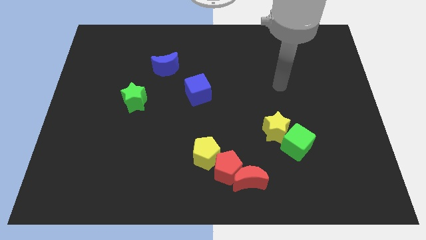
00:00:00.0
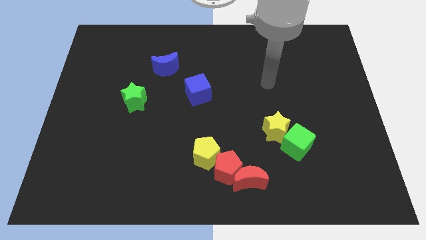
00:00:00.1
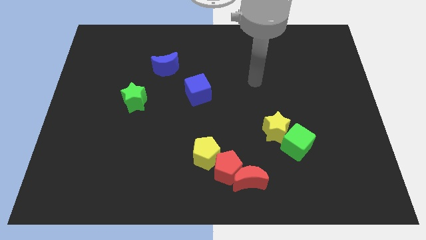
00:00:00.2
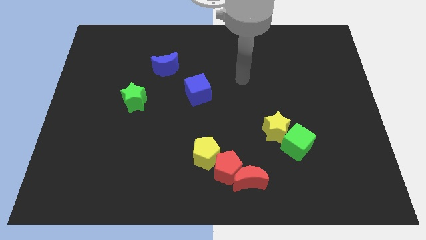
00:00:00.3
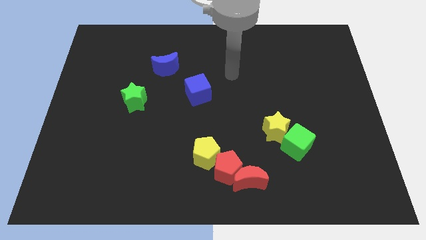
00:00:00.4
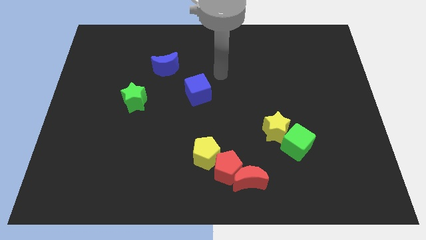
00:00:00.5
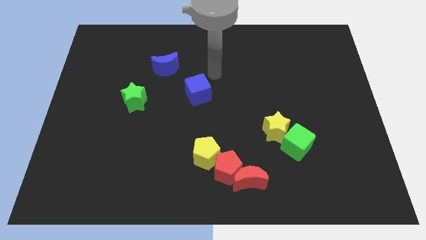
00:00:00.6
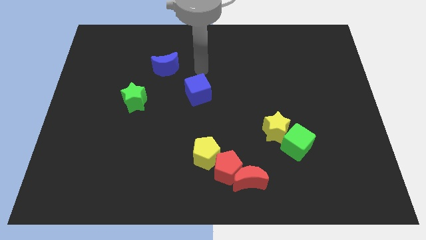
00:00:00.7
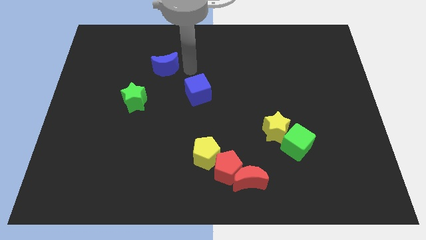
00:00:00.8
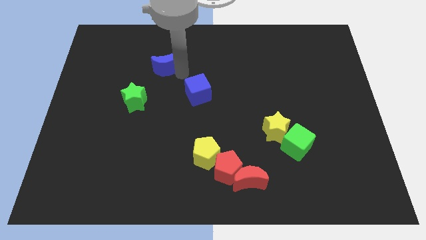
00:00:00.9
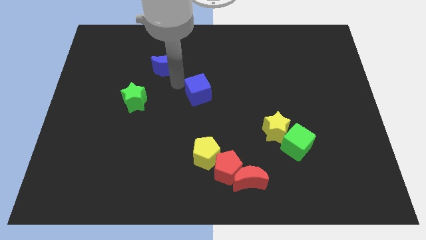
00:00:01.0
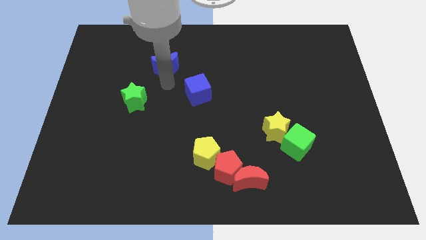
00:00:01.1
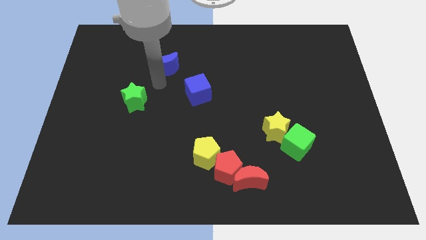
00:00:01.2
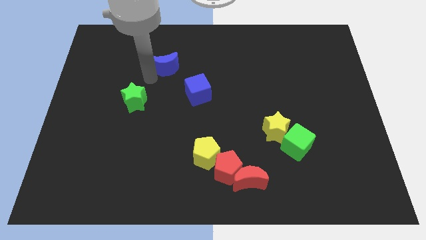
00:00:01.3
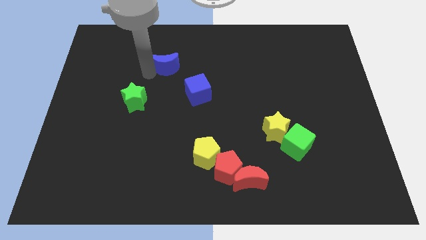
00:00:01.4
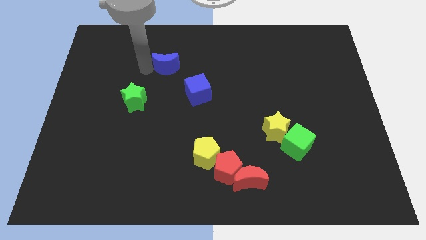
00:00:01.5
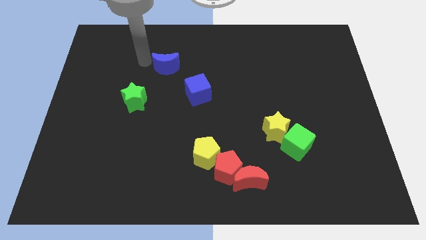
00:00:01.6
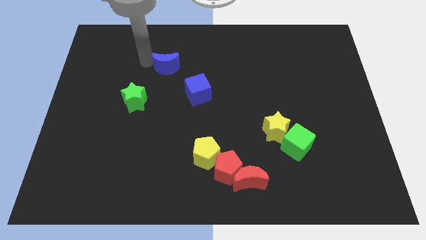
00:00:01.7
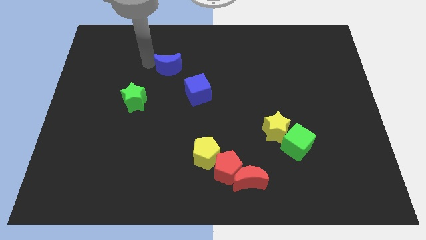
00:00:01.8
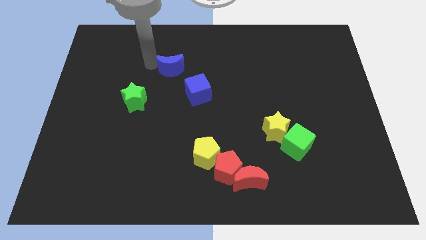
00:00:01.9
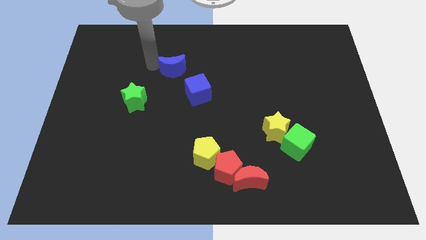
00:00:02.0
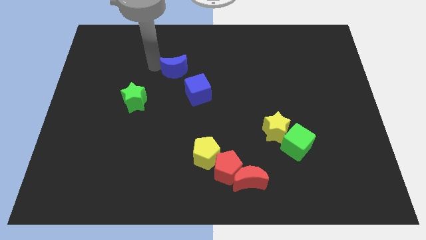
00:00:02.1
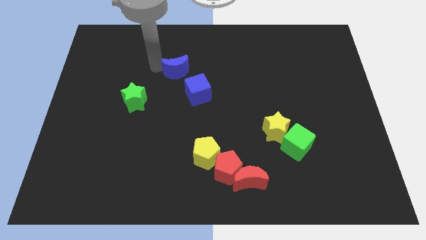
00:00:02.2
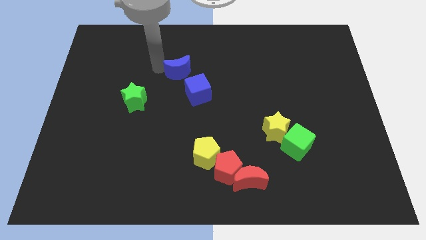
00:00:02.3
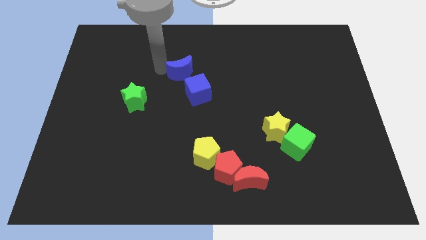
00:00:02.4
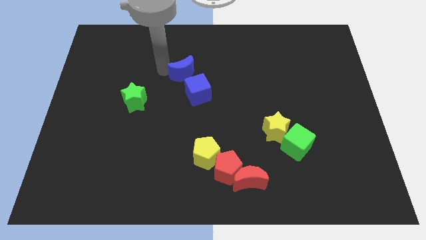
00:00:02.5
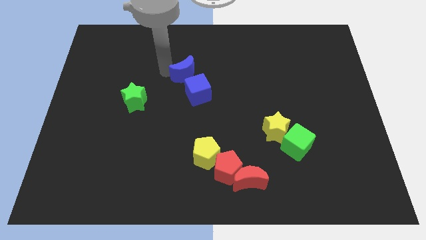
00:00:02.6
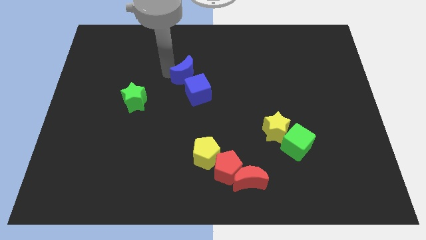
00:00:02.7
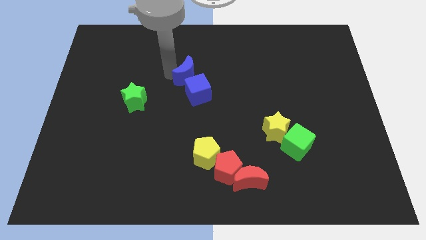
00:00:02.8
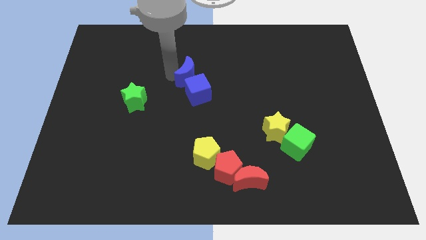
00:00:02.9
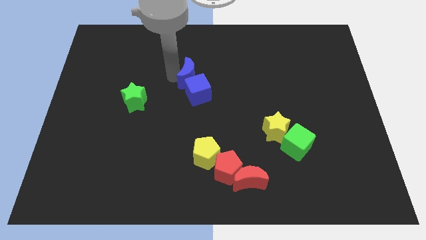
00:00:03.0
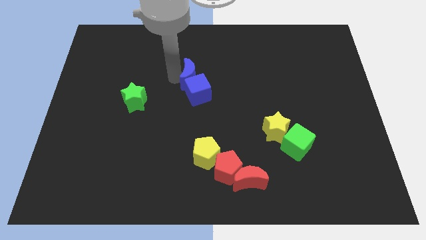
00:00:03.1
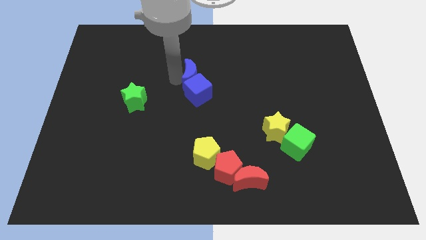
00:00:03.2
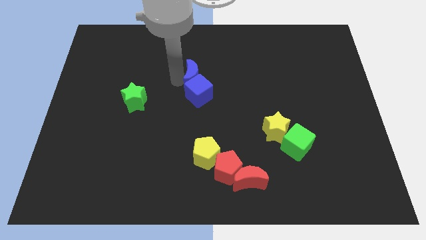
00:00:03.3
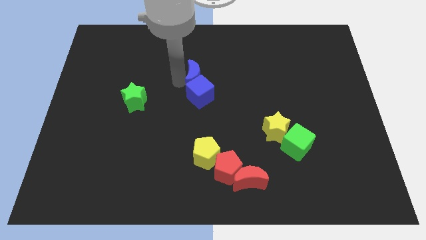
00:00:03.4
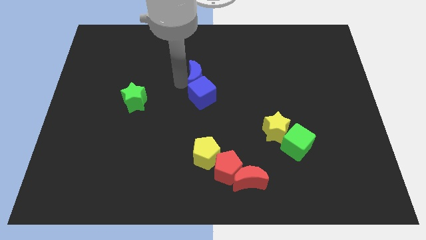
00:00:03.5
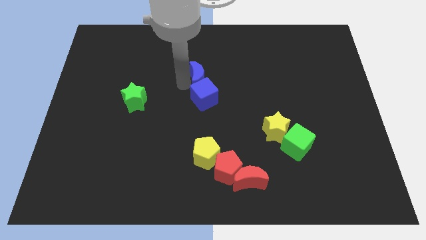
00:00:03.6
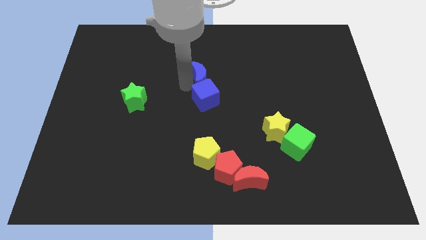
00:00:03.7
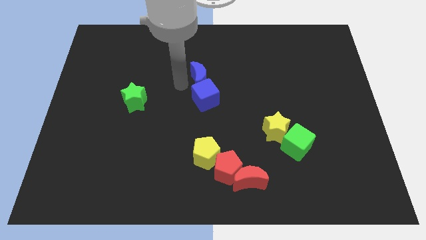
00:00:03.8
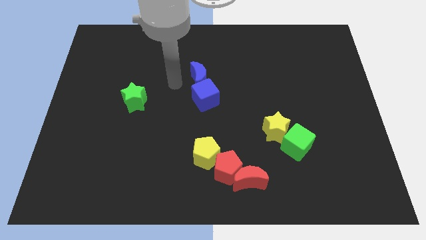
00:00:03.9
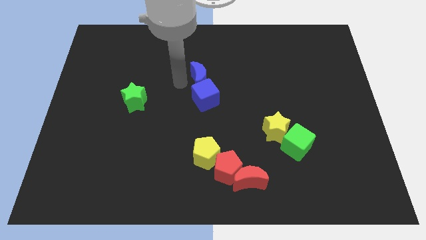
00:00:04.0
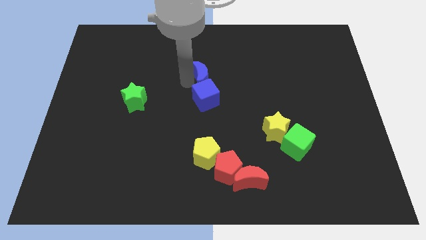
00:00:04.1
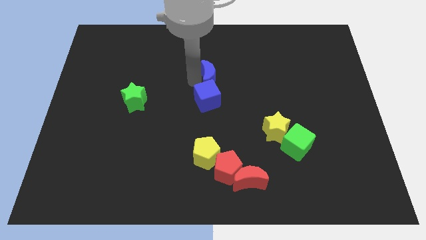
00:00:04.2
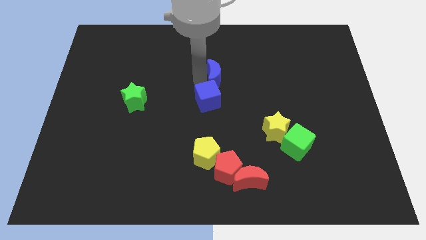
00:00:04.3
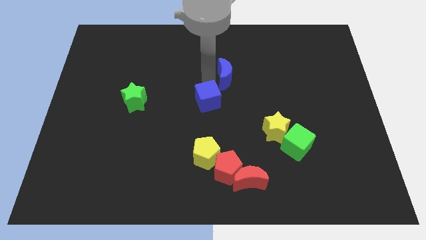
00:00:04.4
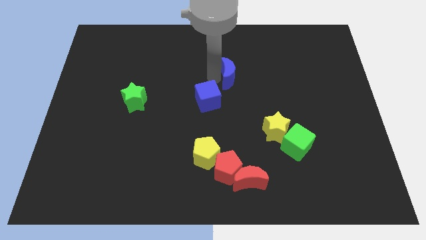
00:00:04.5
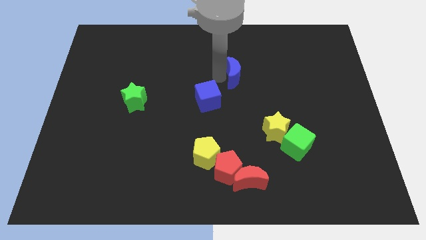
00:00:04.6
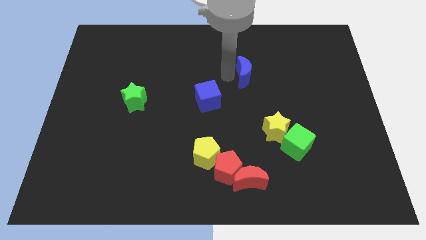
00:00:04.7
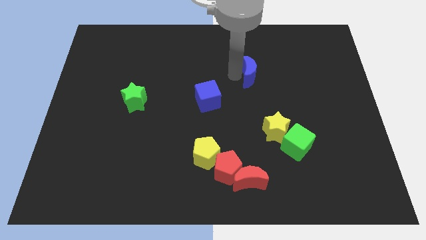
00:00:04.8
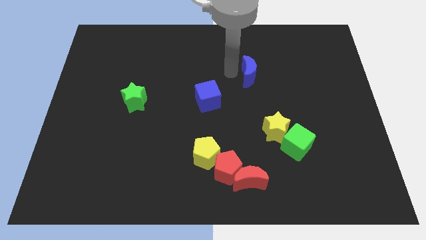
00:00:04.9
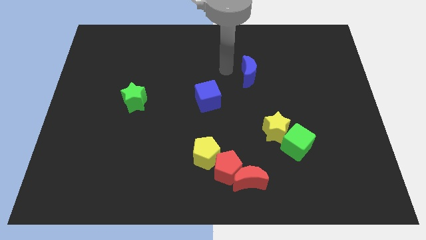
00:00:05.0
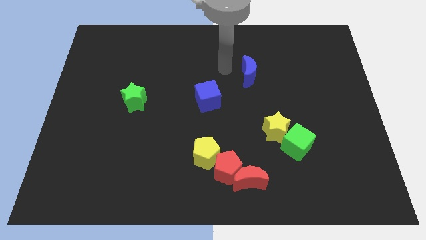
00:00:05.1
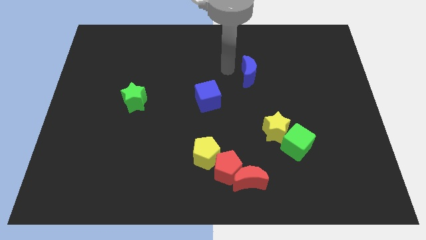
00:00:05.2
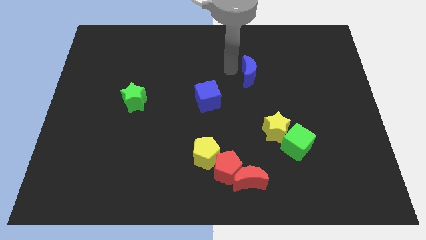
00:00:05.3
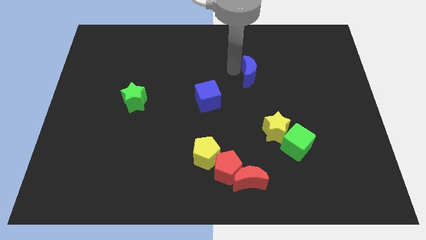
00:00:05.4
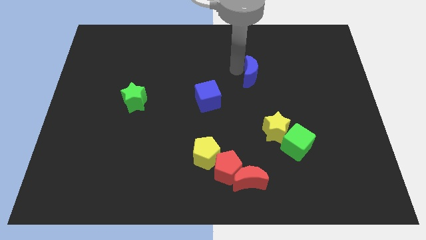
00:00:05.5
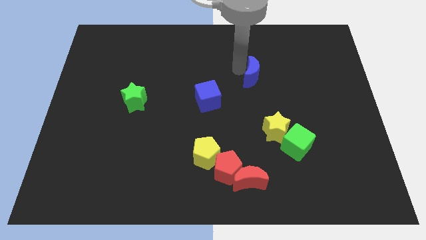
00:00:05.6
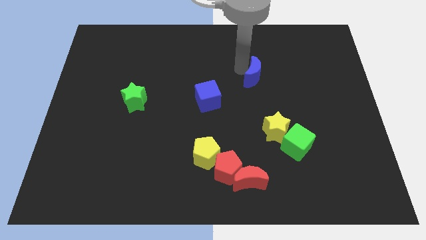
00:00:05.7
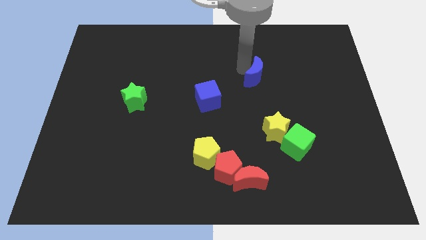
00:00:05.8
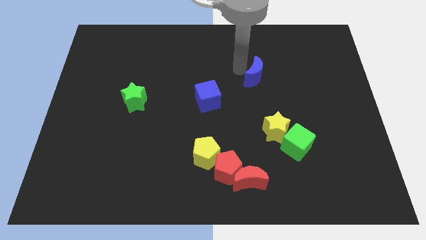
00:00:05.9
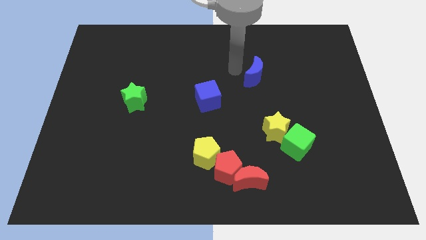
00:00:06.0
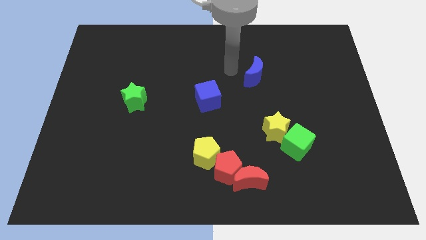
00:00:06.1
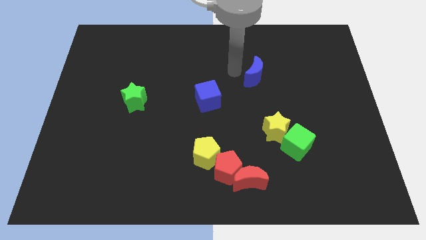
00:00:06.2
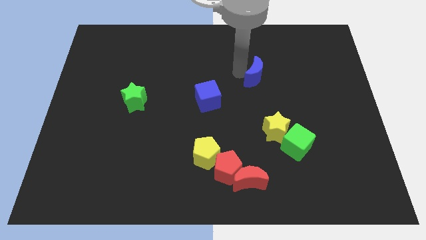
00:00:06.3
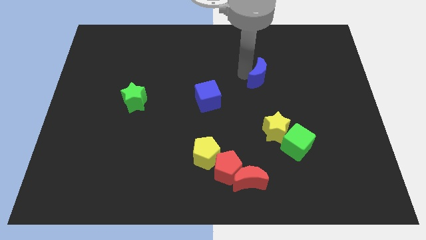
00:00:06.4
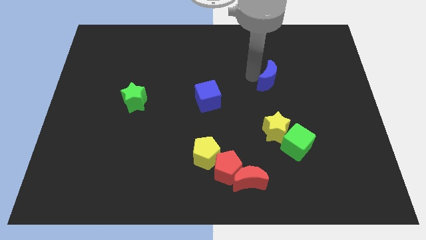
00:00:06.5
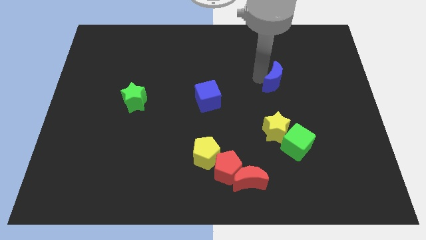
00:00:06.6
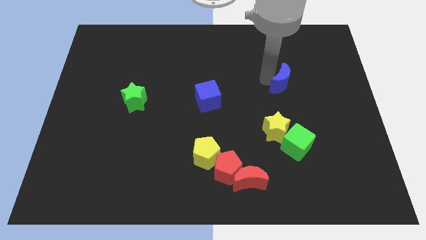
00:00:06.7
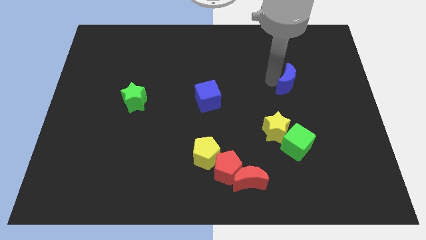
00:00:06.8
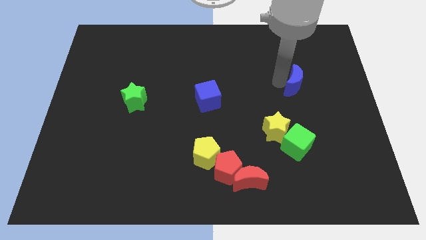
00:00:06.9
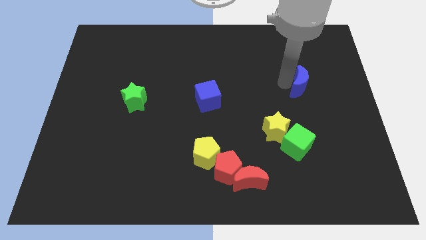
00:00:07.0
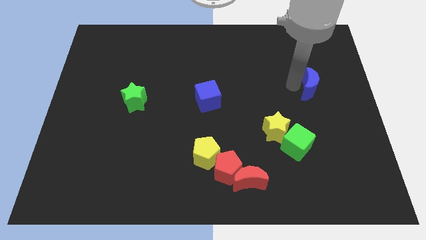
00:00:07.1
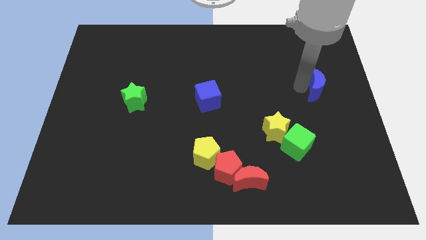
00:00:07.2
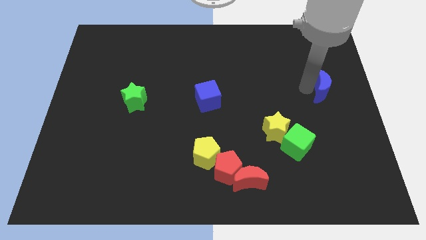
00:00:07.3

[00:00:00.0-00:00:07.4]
put the blue moon to the center right
